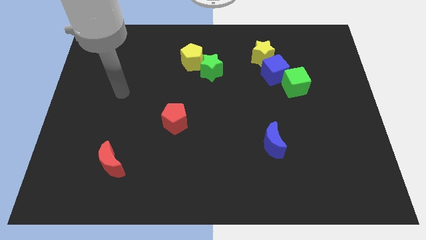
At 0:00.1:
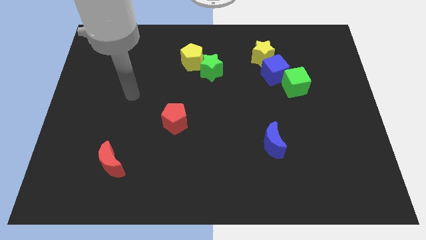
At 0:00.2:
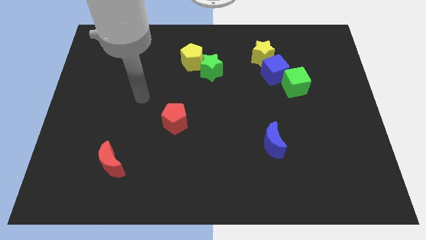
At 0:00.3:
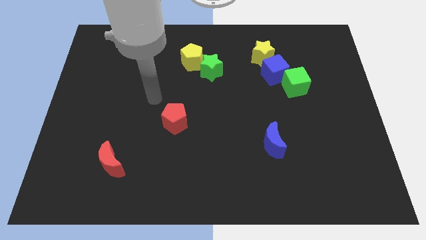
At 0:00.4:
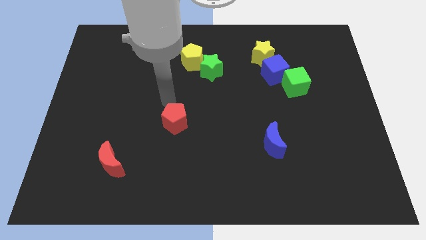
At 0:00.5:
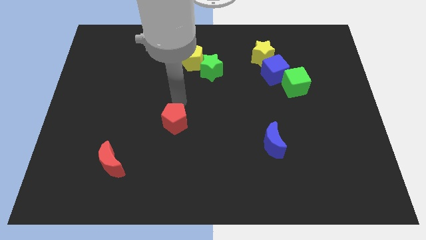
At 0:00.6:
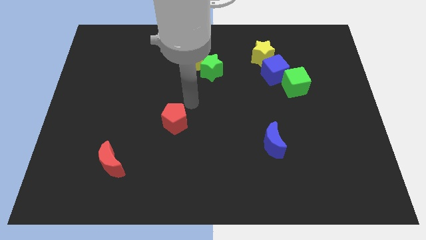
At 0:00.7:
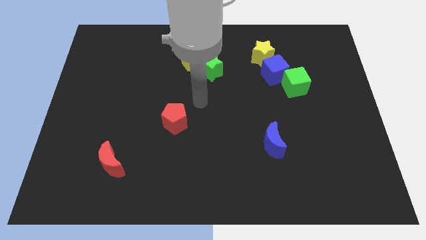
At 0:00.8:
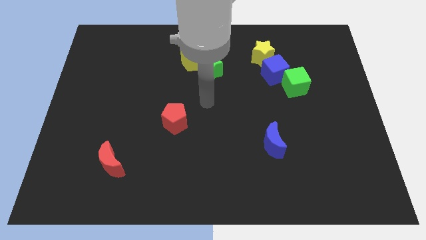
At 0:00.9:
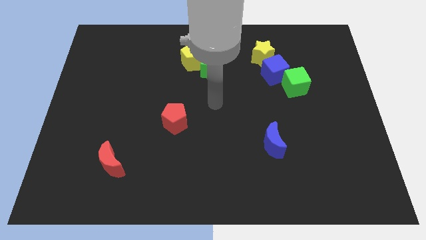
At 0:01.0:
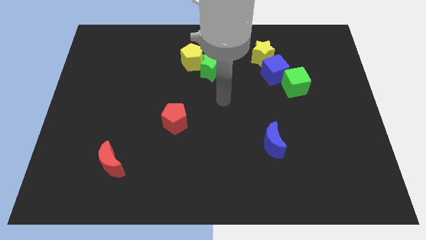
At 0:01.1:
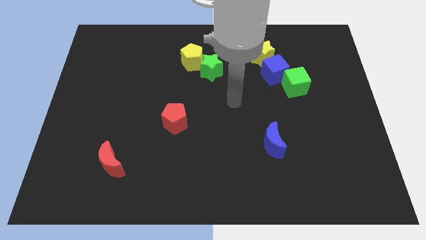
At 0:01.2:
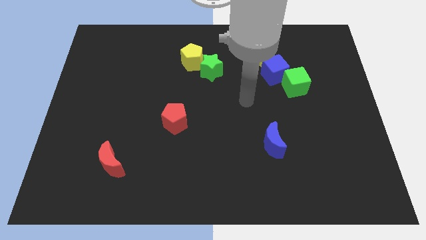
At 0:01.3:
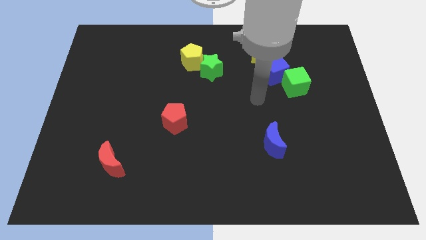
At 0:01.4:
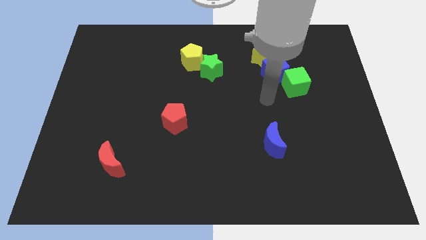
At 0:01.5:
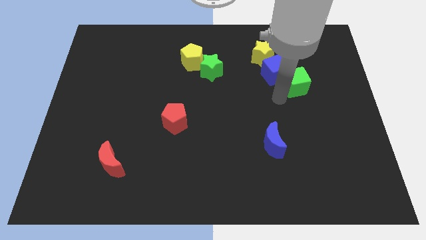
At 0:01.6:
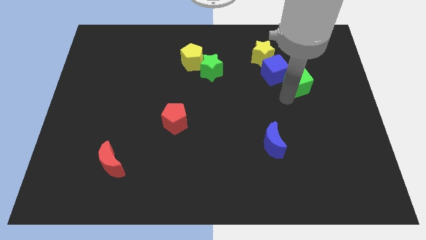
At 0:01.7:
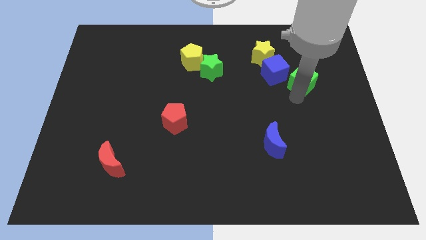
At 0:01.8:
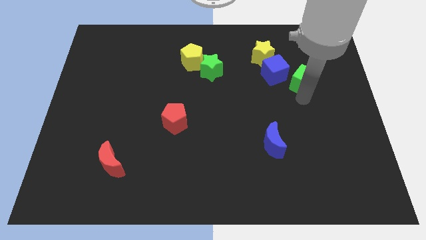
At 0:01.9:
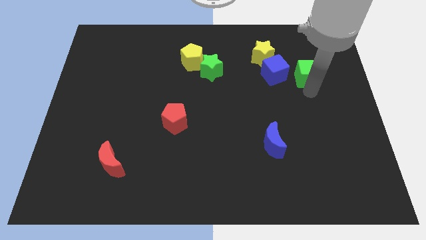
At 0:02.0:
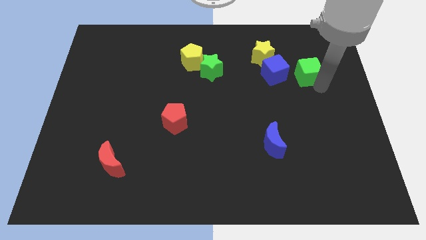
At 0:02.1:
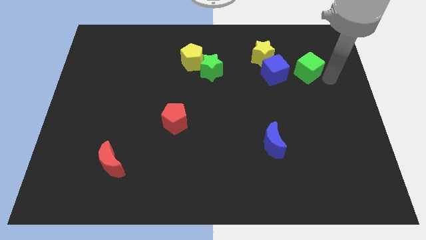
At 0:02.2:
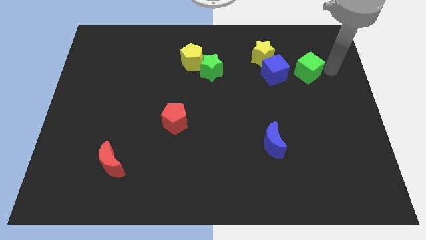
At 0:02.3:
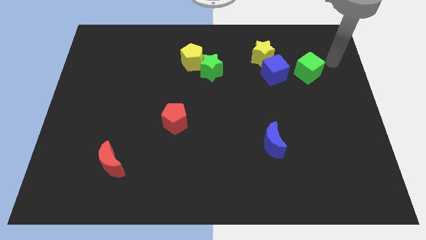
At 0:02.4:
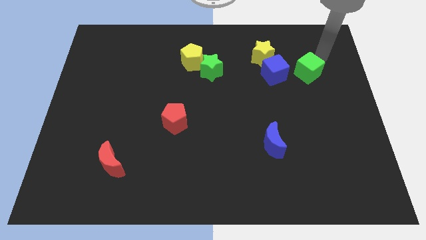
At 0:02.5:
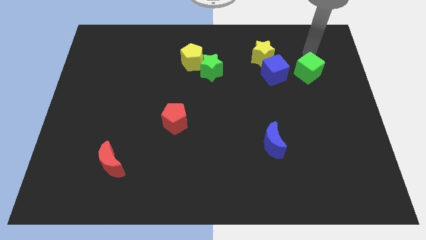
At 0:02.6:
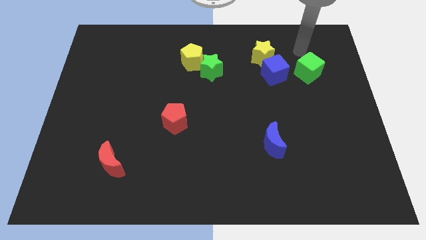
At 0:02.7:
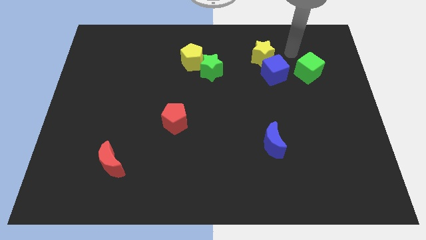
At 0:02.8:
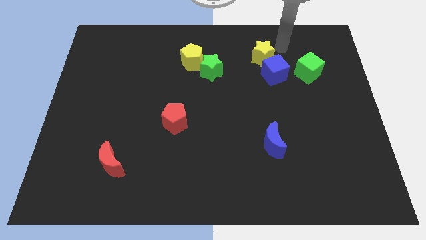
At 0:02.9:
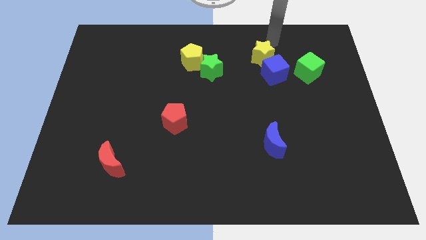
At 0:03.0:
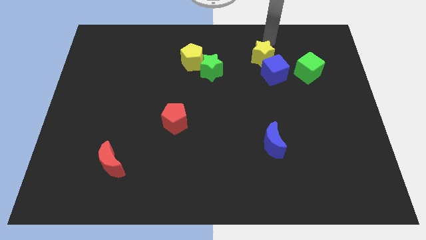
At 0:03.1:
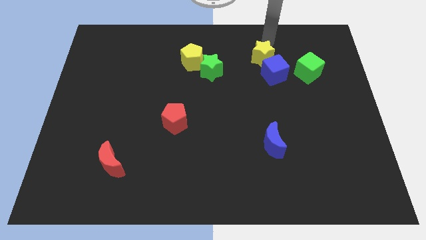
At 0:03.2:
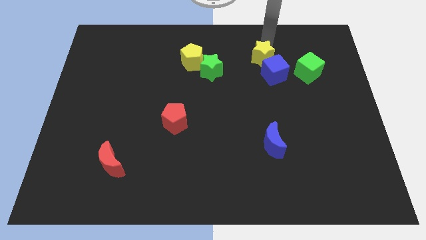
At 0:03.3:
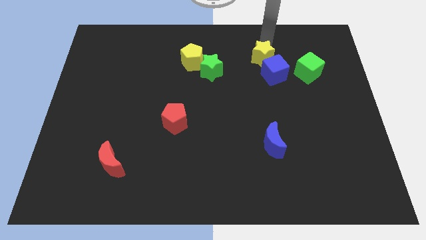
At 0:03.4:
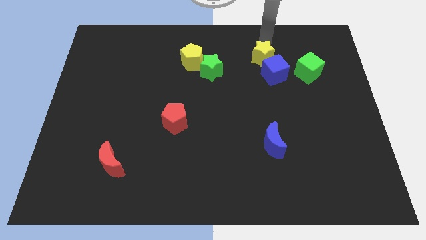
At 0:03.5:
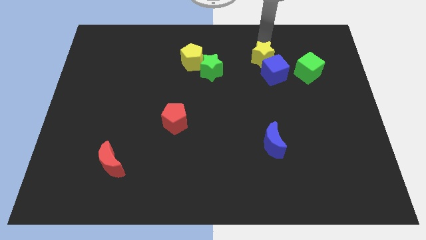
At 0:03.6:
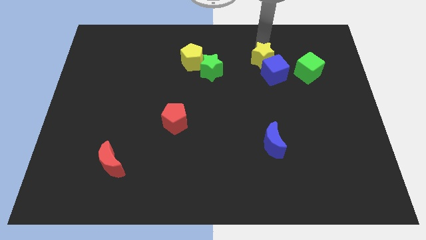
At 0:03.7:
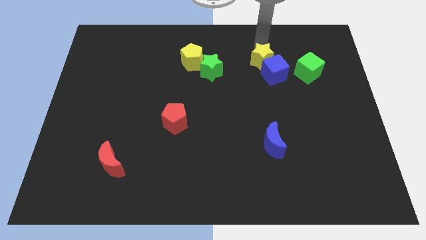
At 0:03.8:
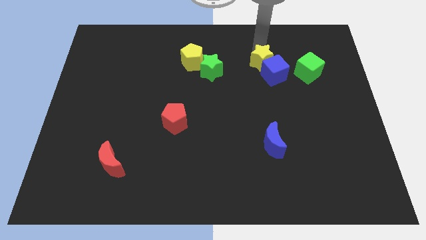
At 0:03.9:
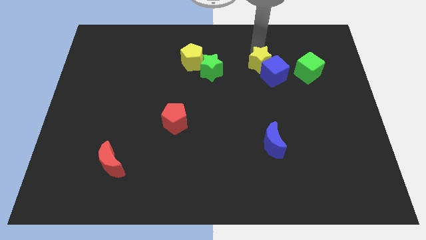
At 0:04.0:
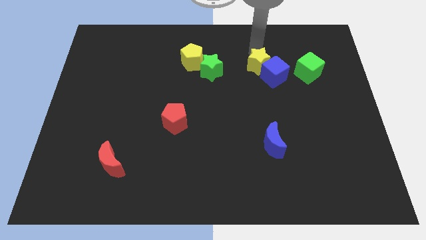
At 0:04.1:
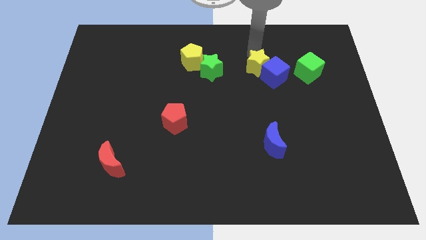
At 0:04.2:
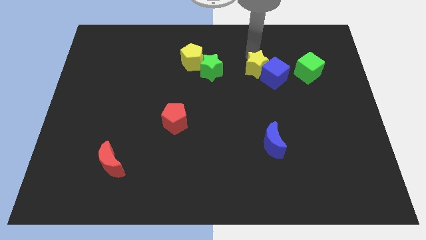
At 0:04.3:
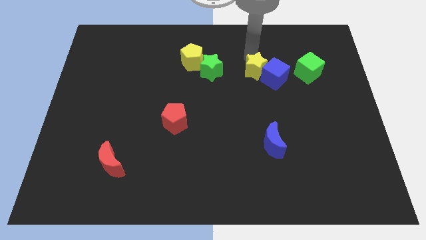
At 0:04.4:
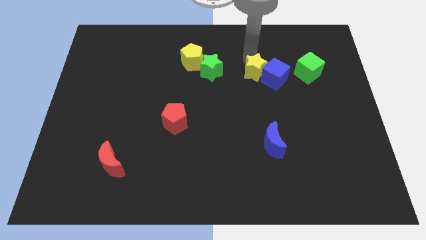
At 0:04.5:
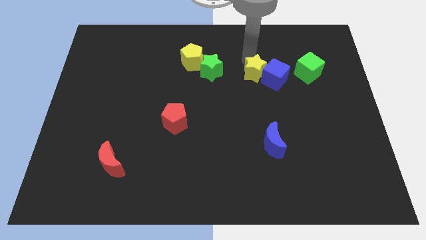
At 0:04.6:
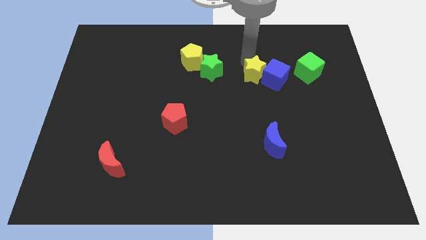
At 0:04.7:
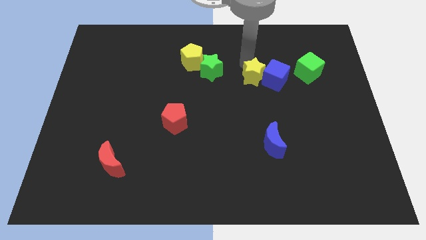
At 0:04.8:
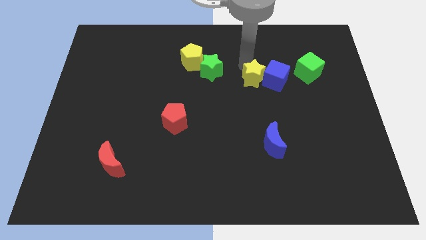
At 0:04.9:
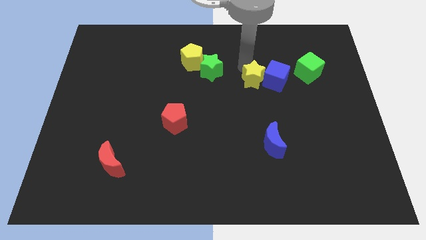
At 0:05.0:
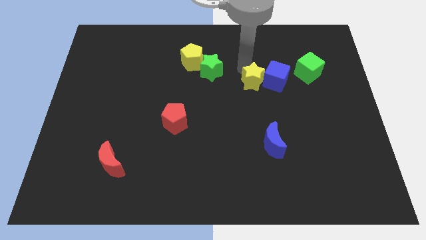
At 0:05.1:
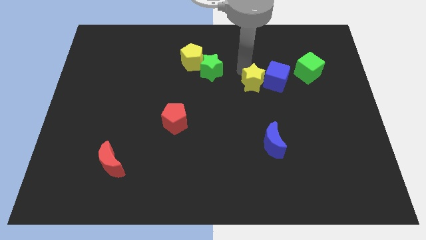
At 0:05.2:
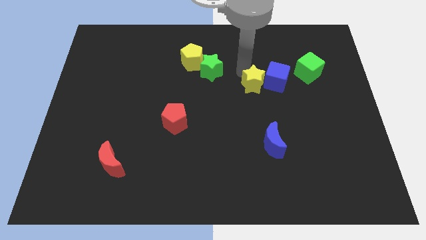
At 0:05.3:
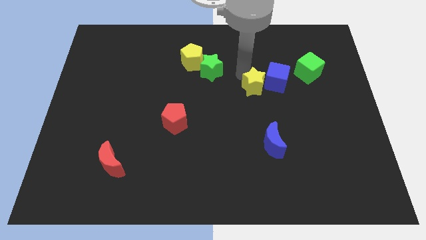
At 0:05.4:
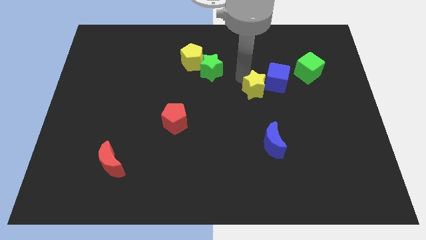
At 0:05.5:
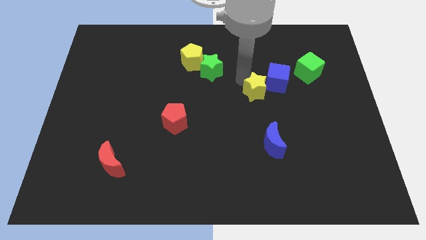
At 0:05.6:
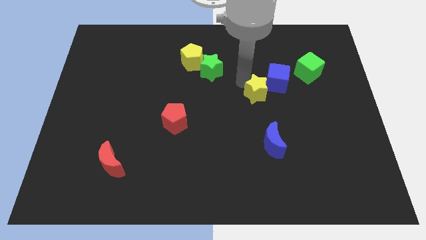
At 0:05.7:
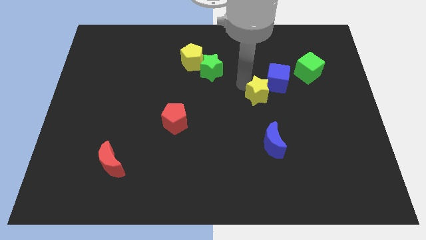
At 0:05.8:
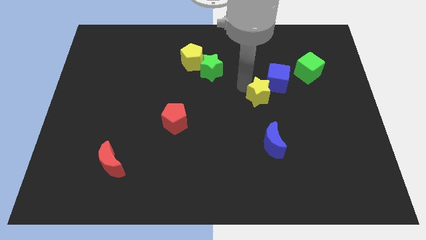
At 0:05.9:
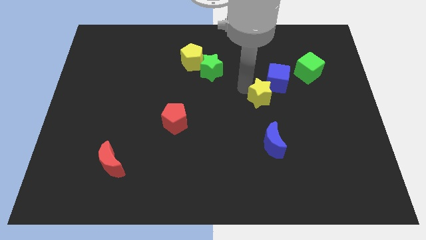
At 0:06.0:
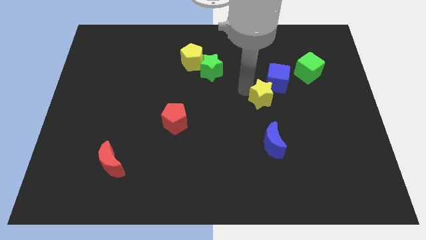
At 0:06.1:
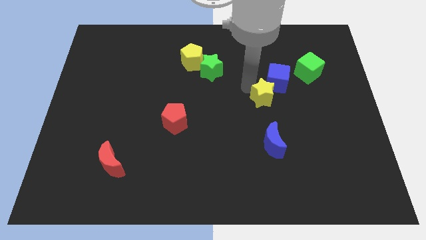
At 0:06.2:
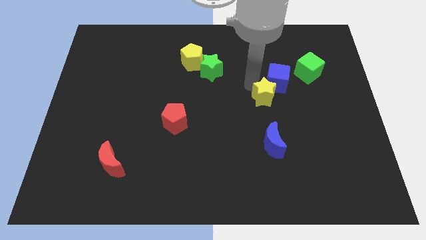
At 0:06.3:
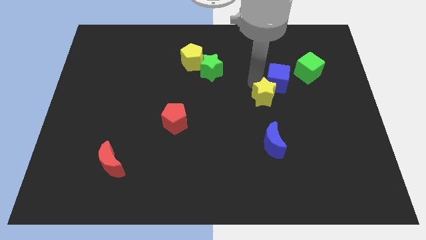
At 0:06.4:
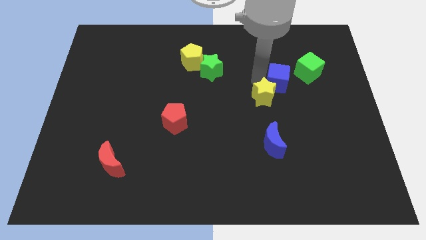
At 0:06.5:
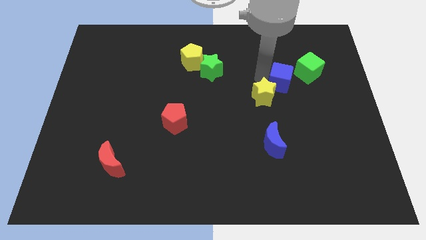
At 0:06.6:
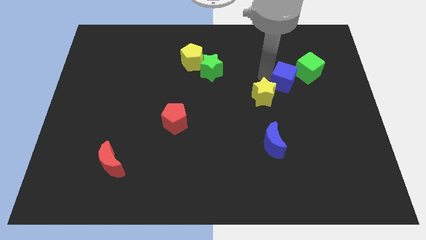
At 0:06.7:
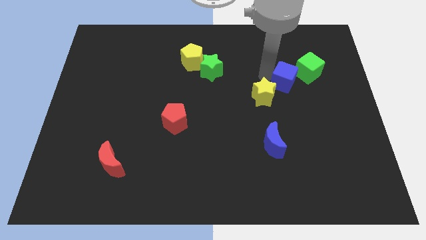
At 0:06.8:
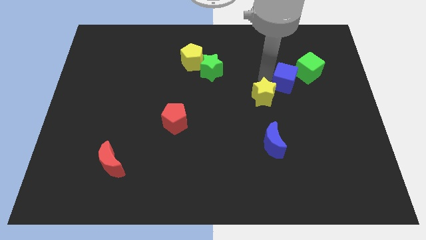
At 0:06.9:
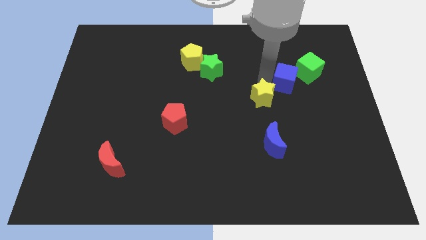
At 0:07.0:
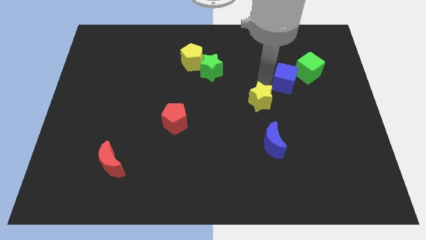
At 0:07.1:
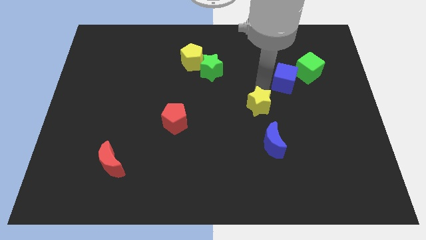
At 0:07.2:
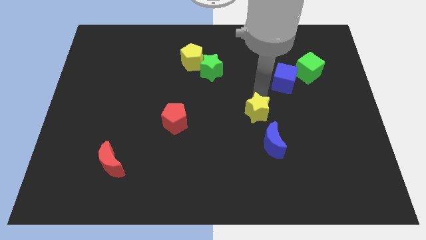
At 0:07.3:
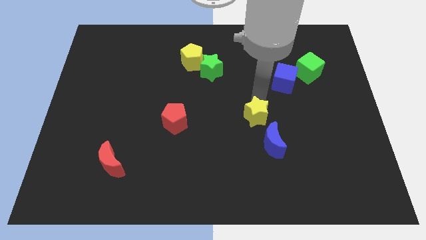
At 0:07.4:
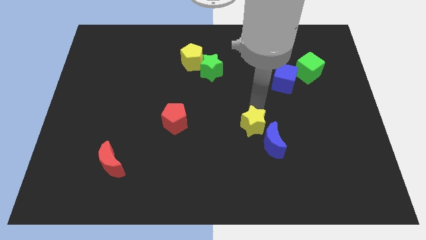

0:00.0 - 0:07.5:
move the yellow star downwards

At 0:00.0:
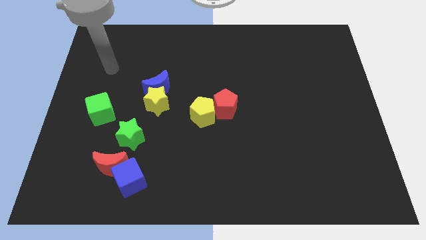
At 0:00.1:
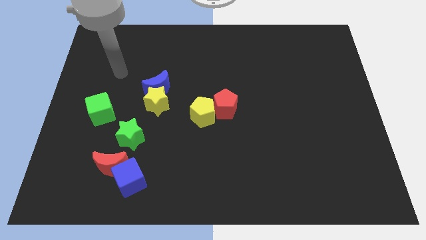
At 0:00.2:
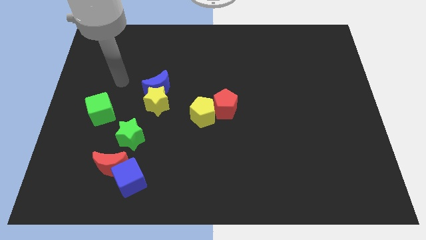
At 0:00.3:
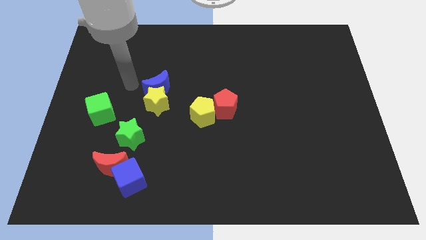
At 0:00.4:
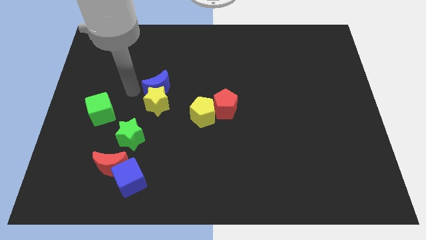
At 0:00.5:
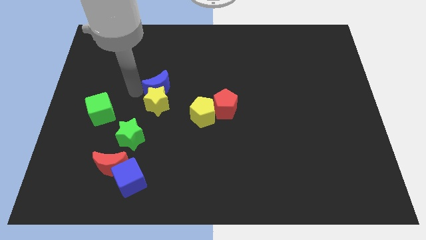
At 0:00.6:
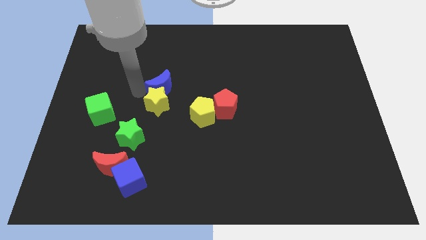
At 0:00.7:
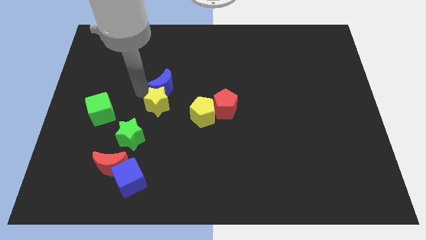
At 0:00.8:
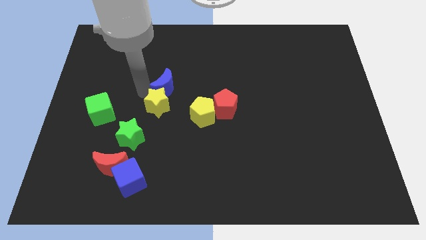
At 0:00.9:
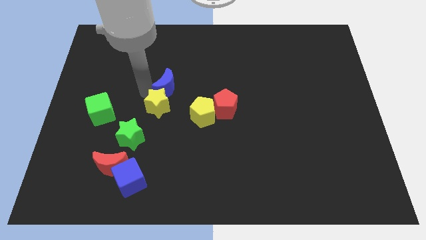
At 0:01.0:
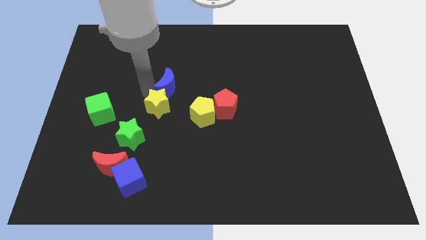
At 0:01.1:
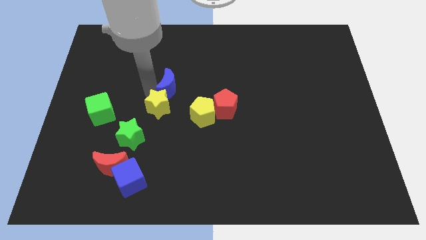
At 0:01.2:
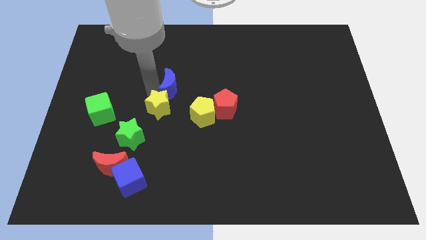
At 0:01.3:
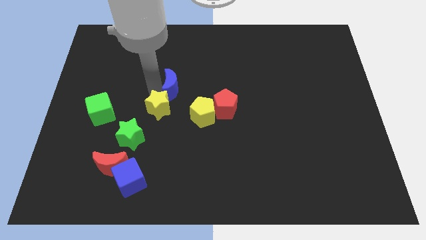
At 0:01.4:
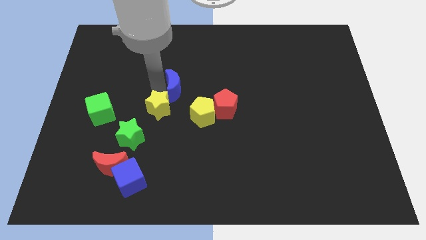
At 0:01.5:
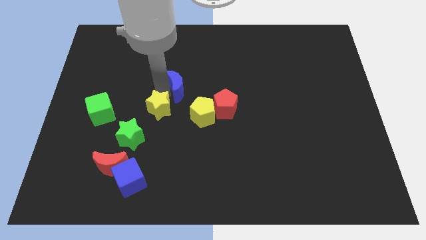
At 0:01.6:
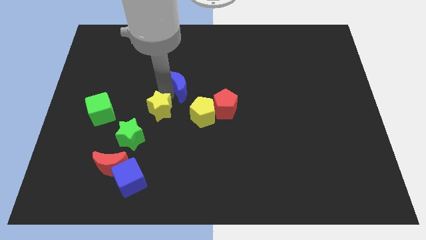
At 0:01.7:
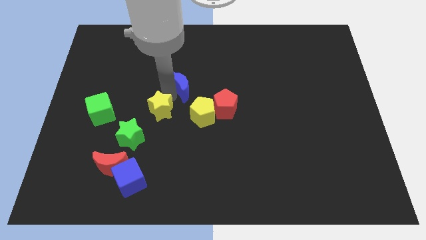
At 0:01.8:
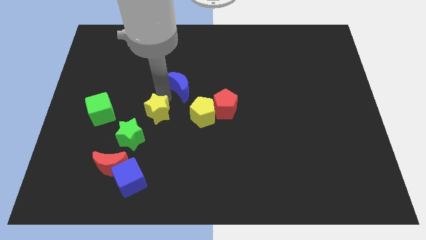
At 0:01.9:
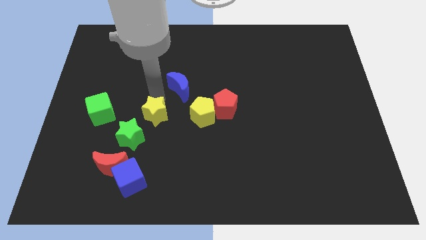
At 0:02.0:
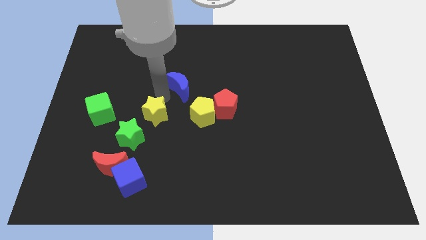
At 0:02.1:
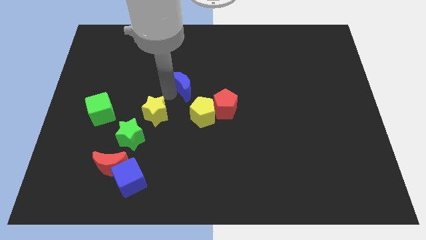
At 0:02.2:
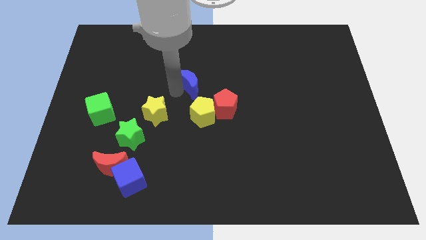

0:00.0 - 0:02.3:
push the blue moon to the right a little bit
